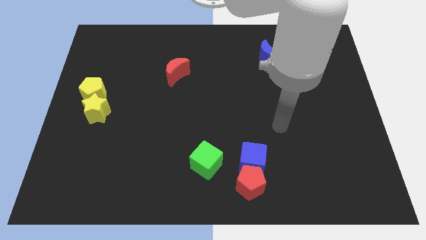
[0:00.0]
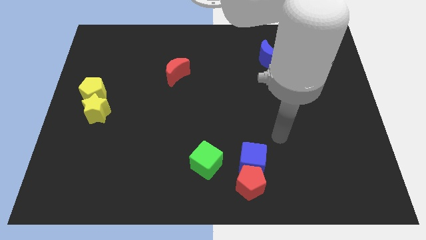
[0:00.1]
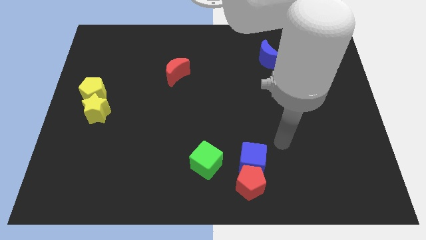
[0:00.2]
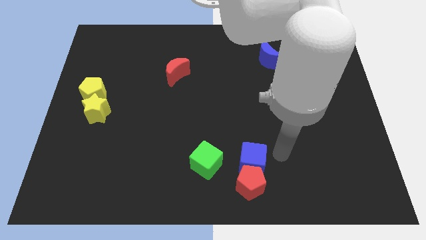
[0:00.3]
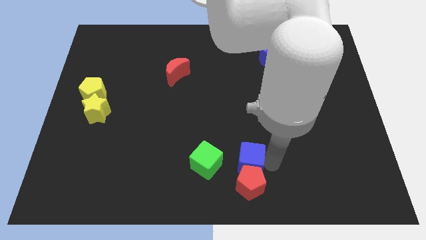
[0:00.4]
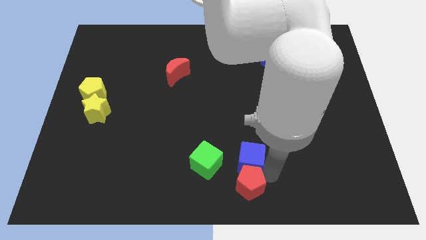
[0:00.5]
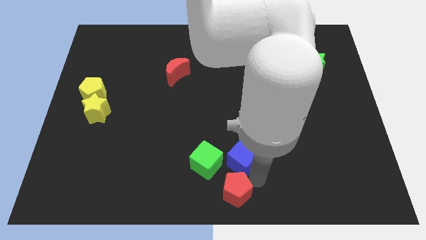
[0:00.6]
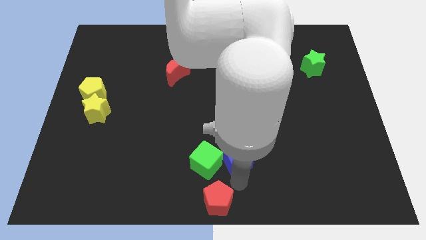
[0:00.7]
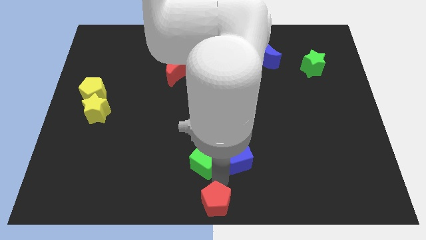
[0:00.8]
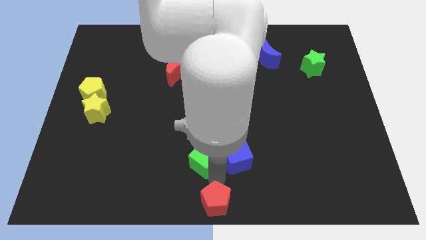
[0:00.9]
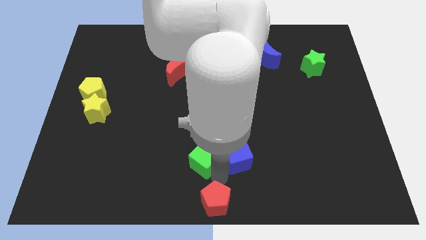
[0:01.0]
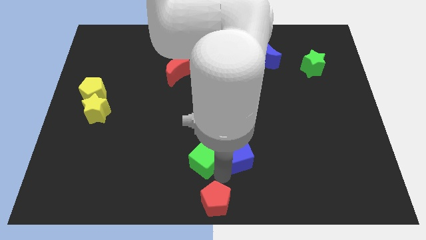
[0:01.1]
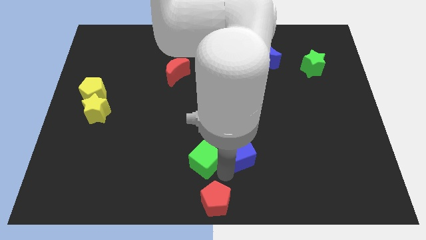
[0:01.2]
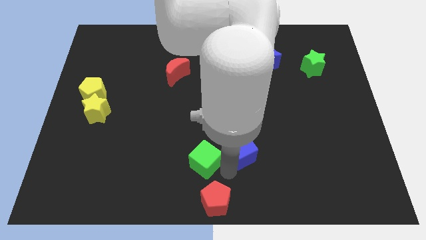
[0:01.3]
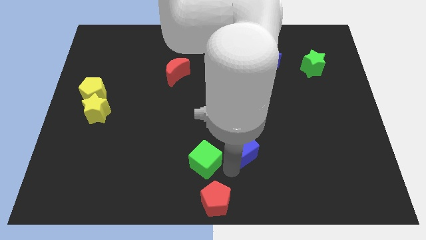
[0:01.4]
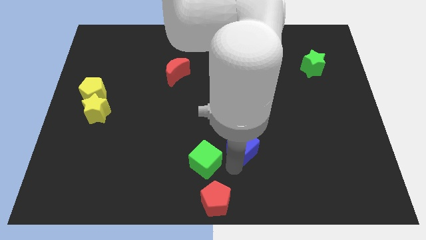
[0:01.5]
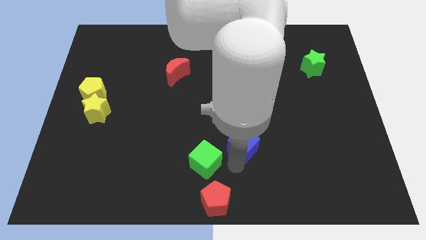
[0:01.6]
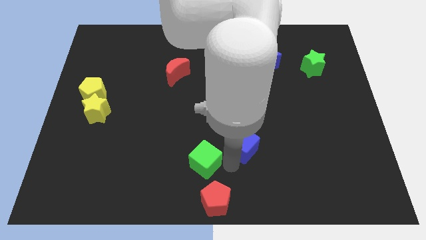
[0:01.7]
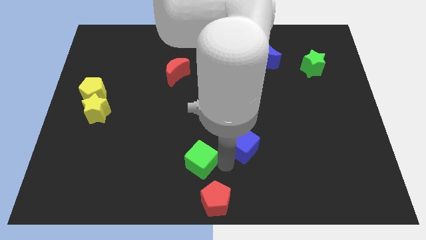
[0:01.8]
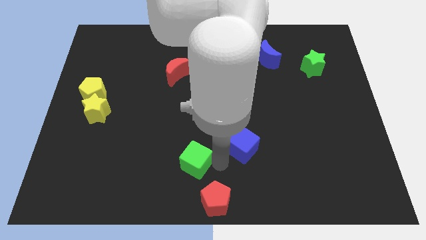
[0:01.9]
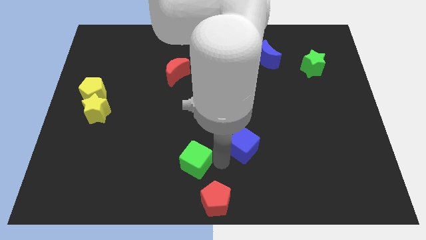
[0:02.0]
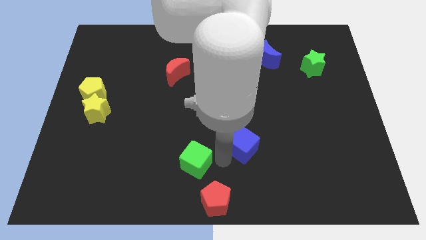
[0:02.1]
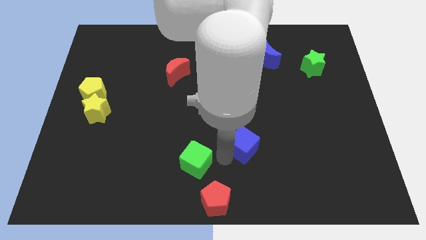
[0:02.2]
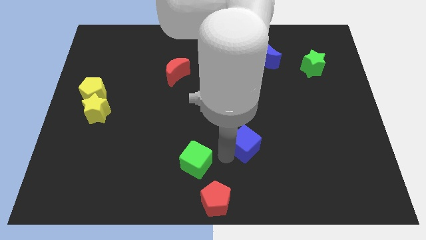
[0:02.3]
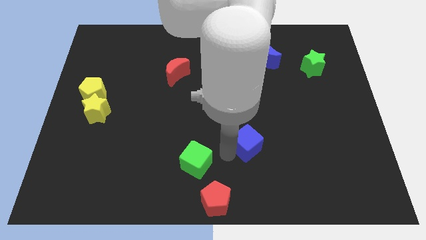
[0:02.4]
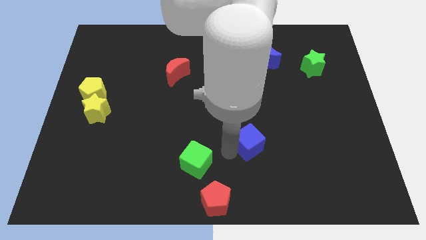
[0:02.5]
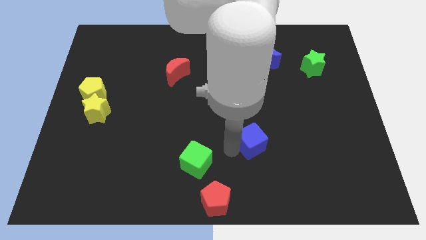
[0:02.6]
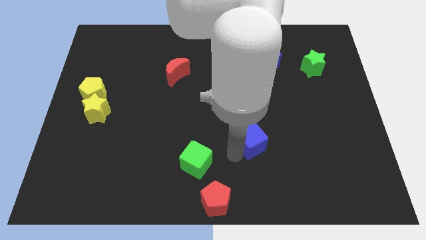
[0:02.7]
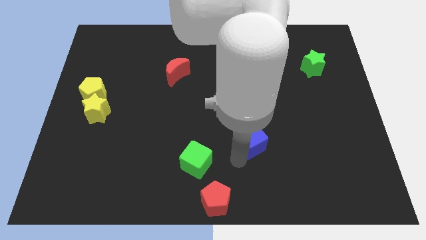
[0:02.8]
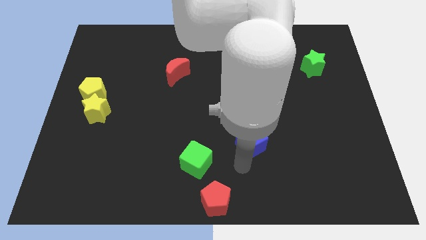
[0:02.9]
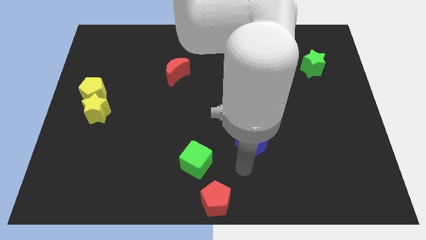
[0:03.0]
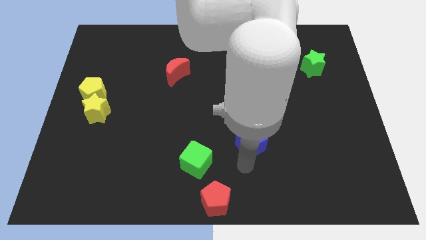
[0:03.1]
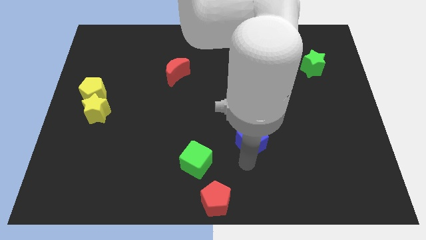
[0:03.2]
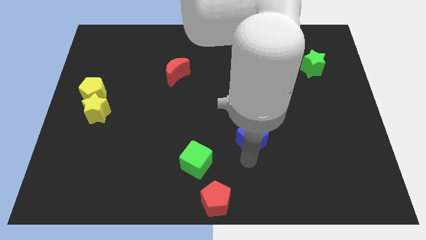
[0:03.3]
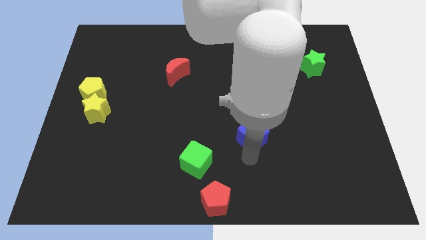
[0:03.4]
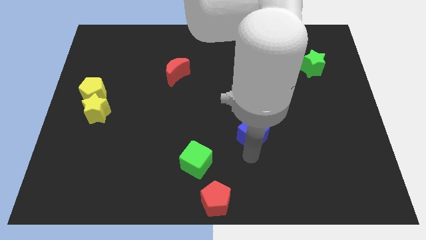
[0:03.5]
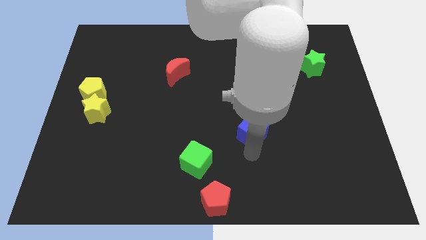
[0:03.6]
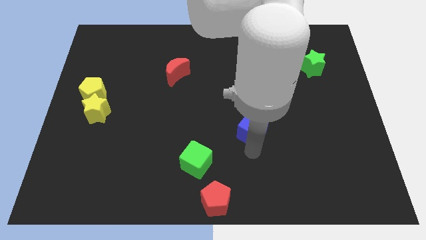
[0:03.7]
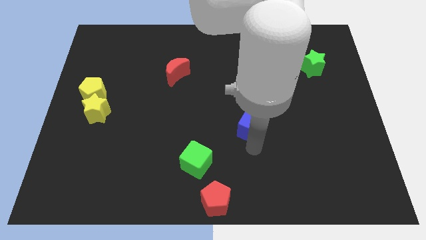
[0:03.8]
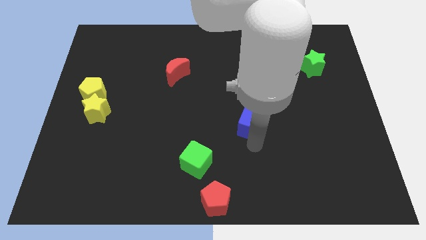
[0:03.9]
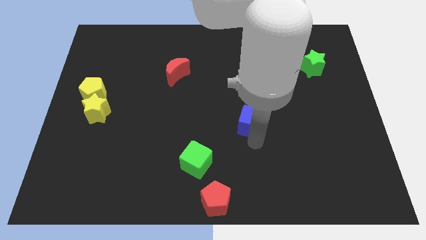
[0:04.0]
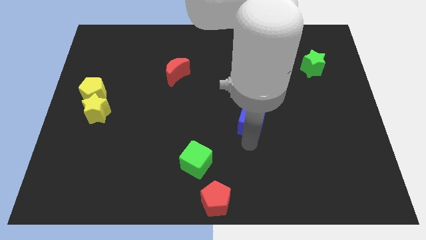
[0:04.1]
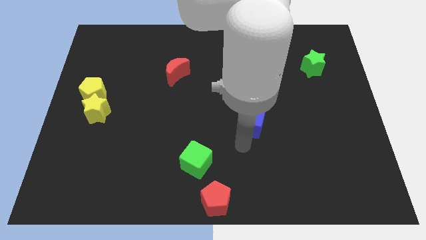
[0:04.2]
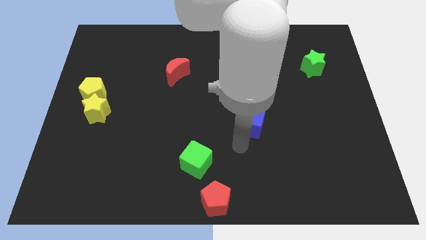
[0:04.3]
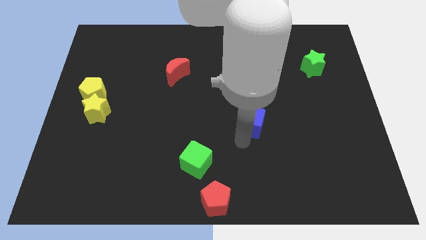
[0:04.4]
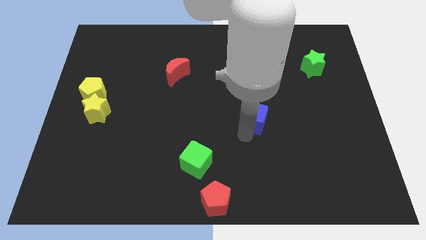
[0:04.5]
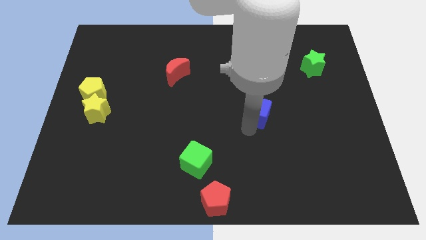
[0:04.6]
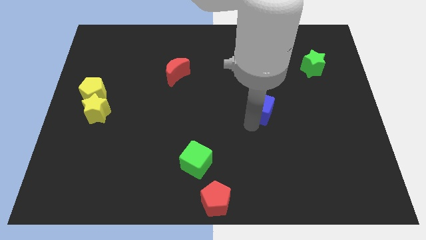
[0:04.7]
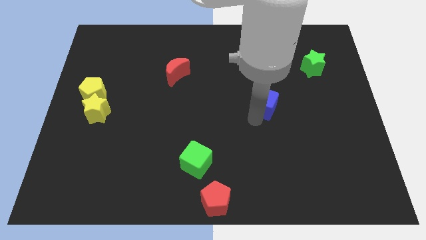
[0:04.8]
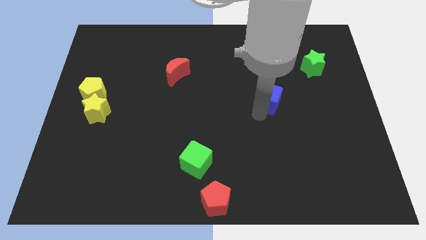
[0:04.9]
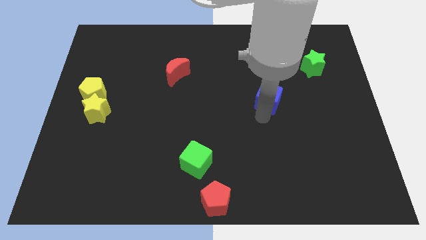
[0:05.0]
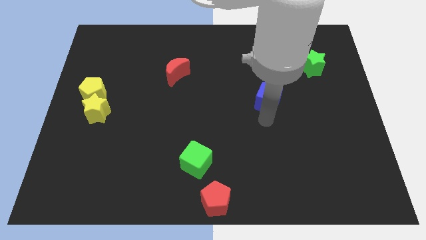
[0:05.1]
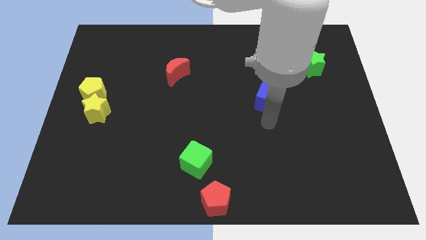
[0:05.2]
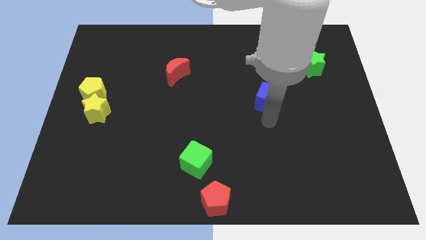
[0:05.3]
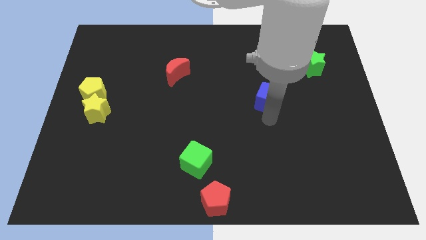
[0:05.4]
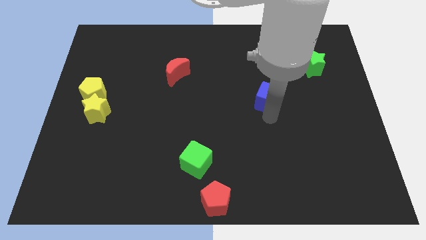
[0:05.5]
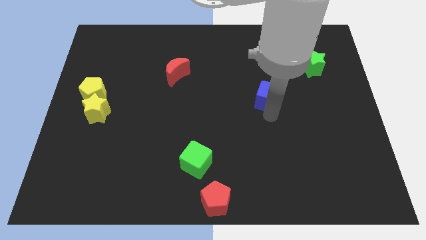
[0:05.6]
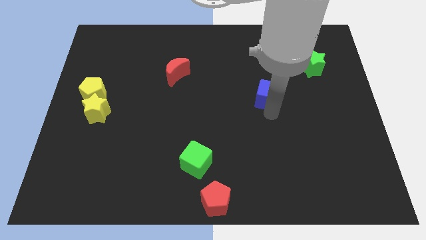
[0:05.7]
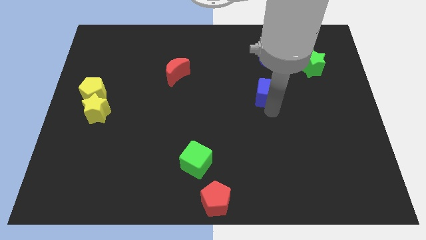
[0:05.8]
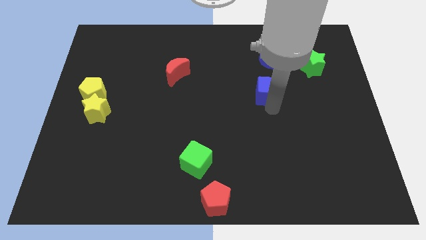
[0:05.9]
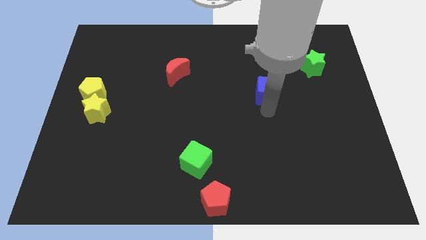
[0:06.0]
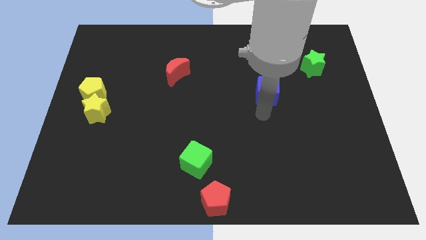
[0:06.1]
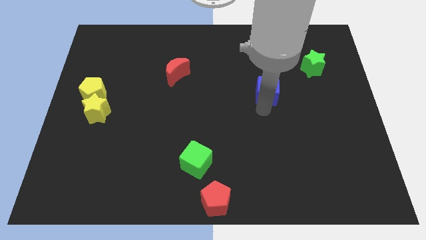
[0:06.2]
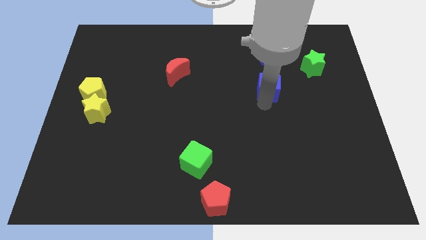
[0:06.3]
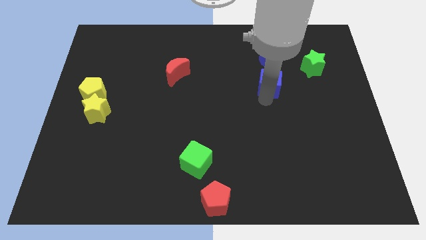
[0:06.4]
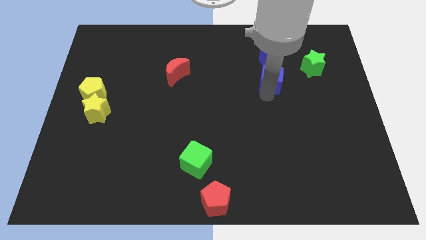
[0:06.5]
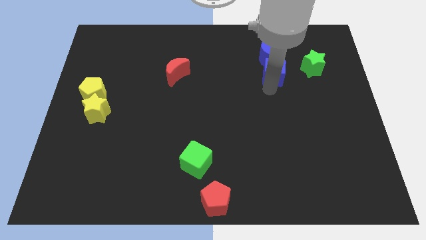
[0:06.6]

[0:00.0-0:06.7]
move the blue cube close to the blue moon

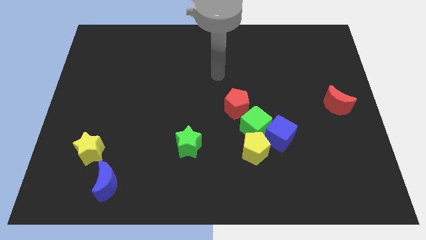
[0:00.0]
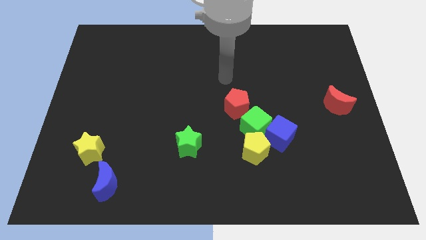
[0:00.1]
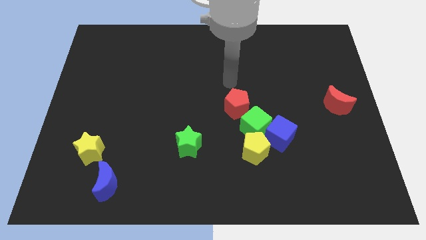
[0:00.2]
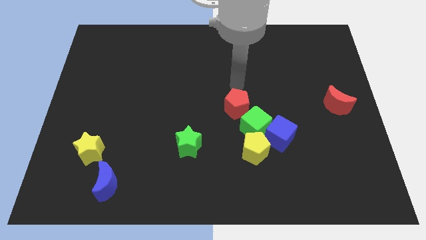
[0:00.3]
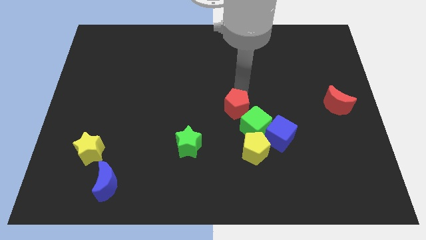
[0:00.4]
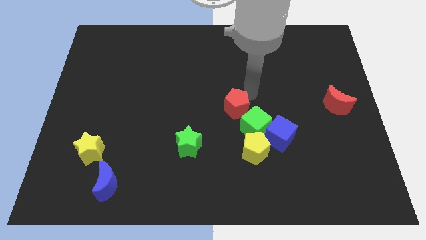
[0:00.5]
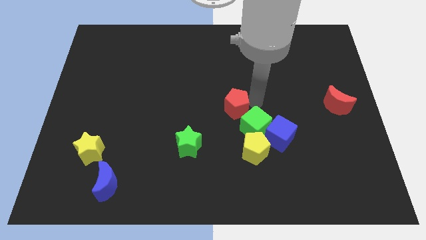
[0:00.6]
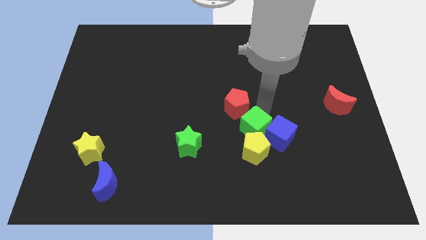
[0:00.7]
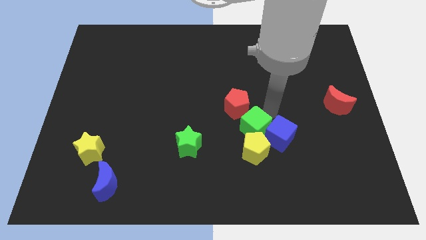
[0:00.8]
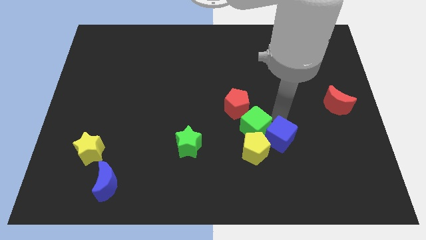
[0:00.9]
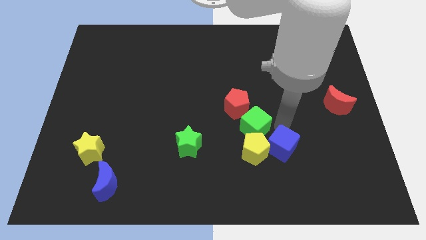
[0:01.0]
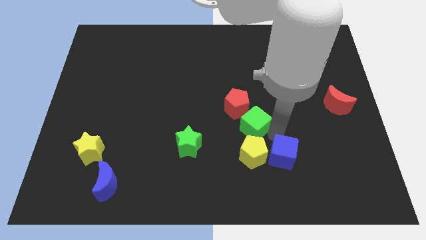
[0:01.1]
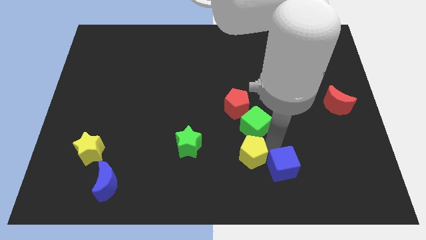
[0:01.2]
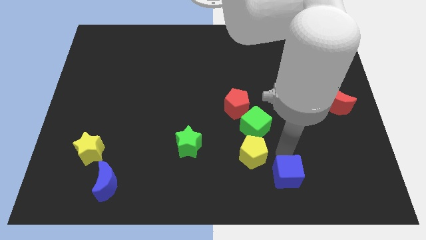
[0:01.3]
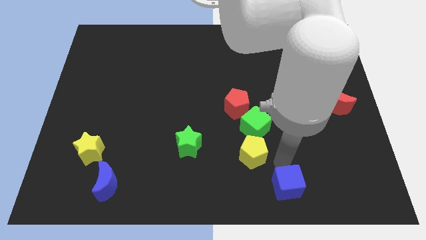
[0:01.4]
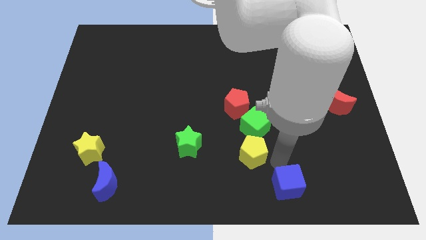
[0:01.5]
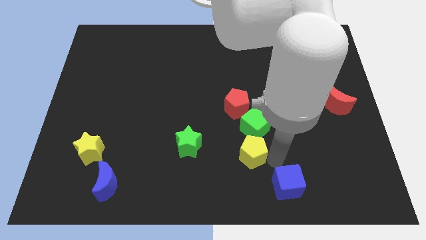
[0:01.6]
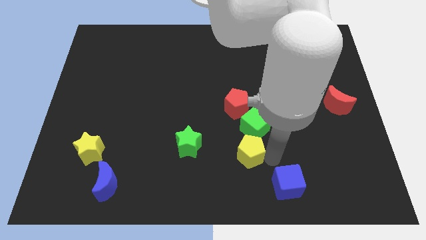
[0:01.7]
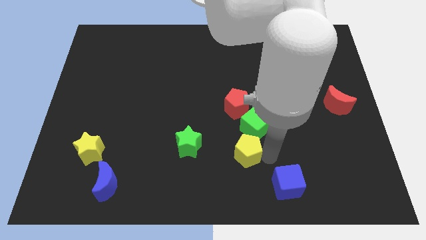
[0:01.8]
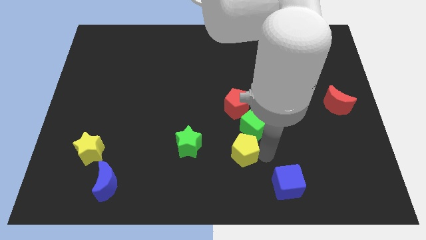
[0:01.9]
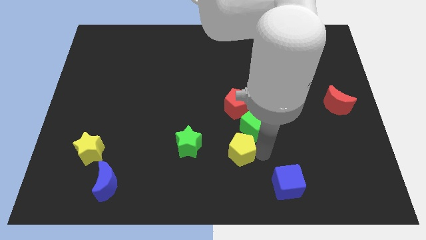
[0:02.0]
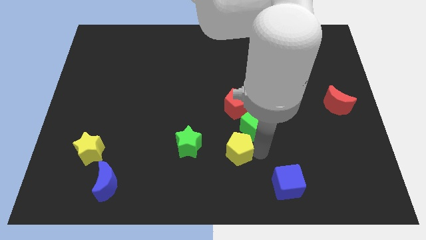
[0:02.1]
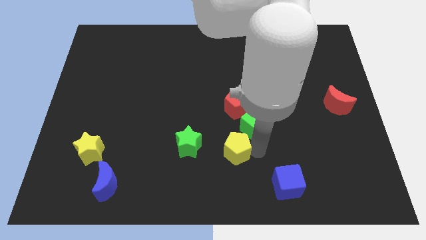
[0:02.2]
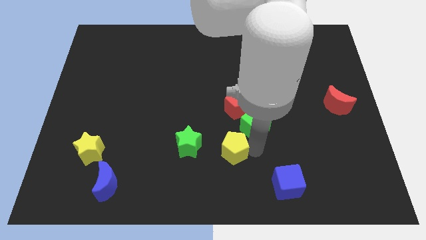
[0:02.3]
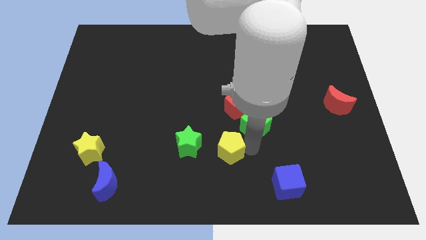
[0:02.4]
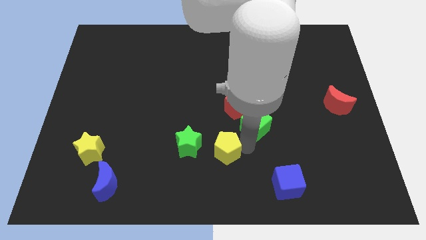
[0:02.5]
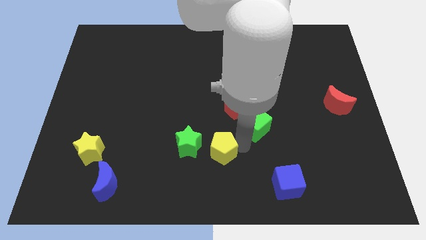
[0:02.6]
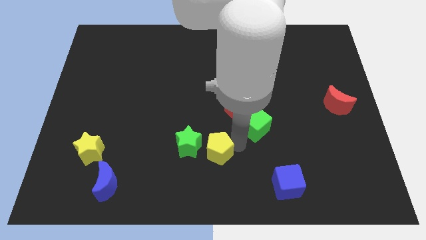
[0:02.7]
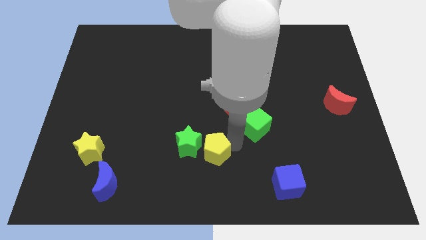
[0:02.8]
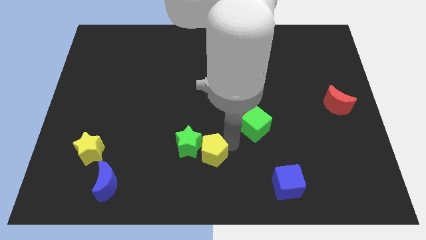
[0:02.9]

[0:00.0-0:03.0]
slide the yellow pentagon to the green star
